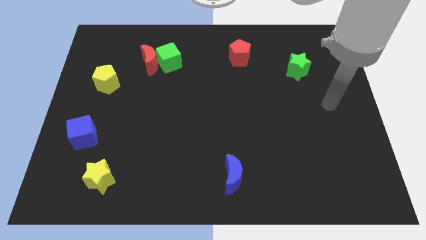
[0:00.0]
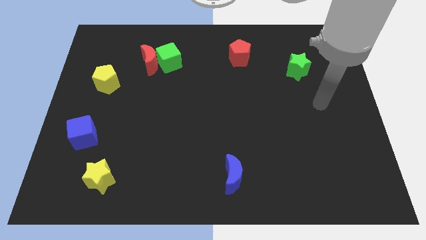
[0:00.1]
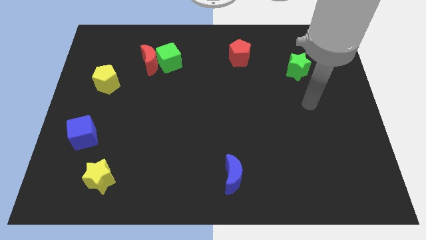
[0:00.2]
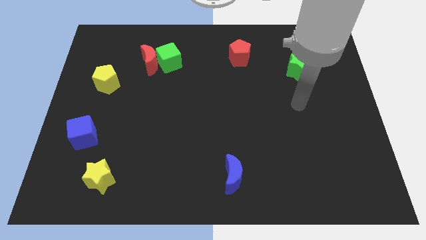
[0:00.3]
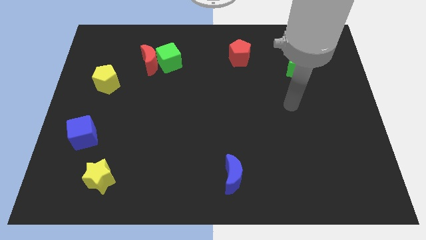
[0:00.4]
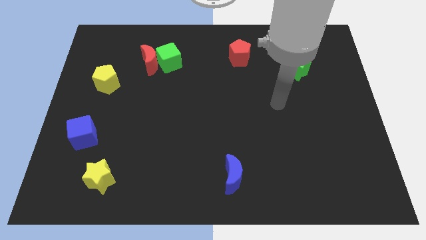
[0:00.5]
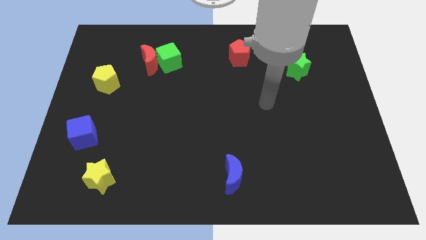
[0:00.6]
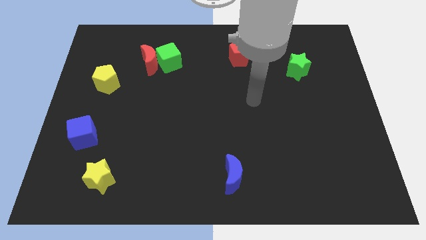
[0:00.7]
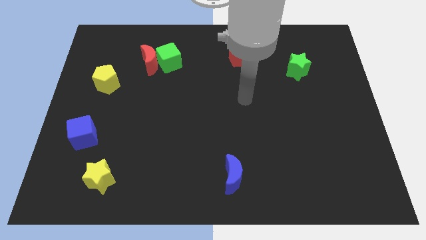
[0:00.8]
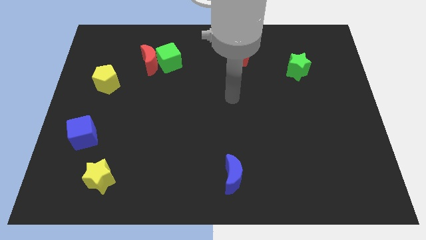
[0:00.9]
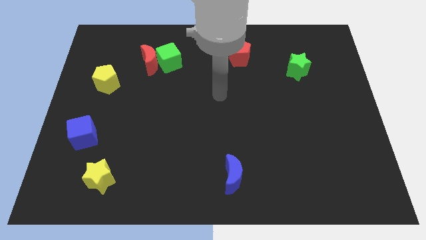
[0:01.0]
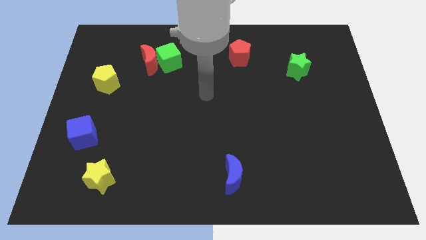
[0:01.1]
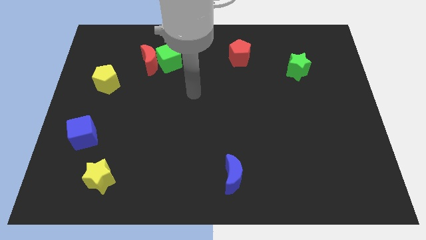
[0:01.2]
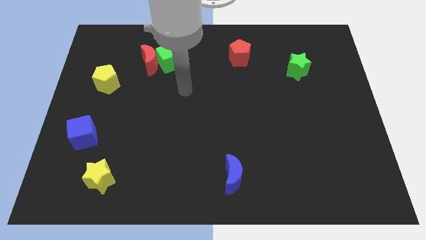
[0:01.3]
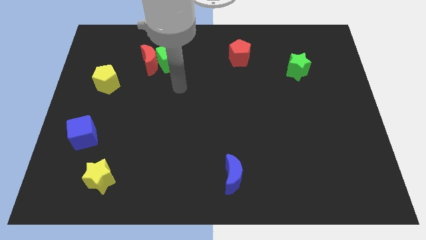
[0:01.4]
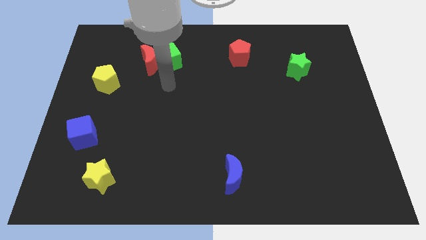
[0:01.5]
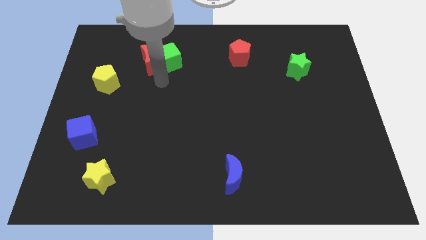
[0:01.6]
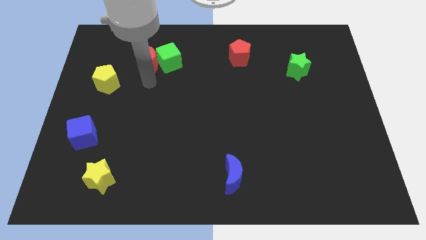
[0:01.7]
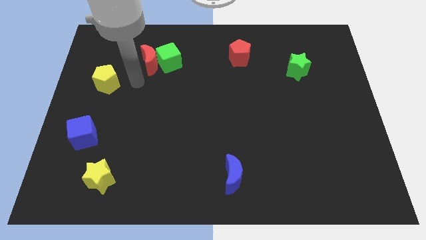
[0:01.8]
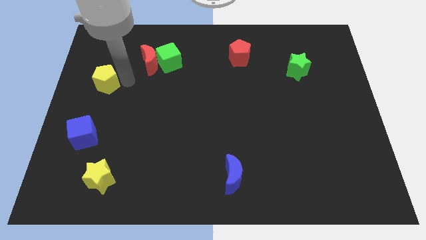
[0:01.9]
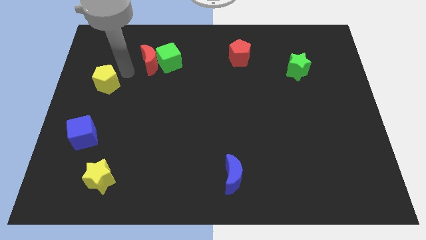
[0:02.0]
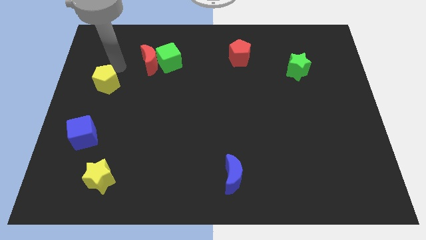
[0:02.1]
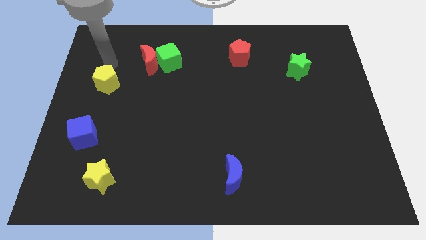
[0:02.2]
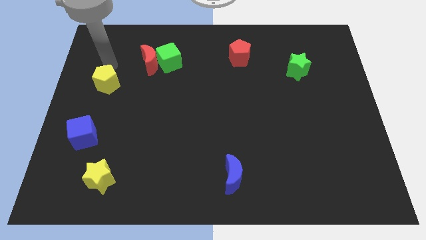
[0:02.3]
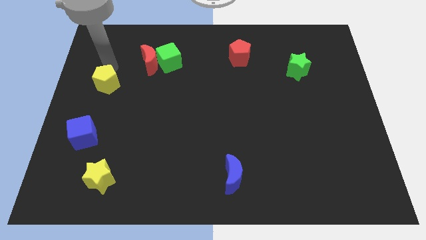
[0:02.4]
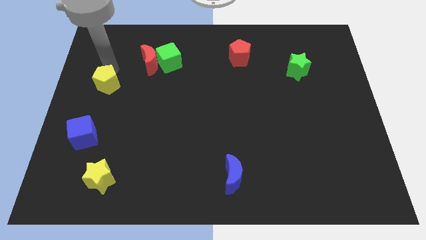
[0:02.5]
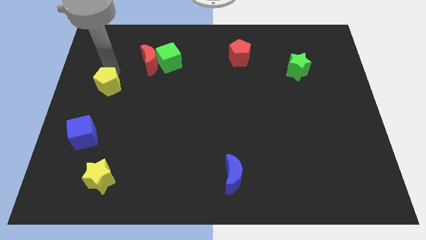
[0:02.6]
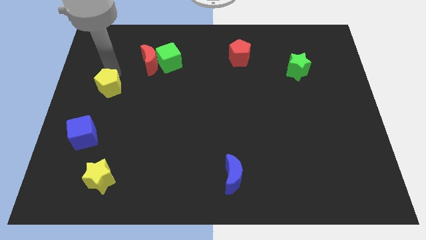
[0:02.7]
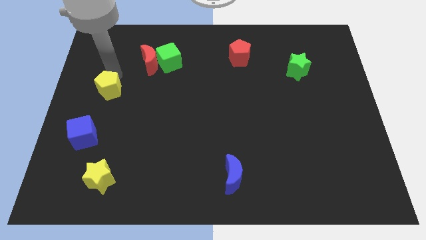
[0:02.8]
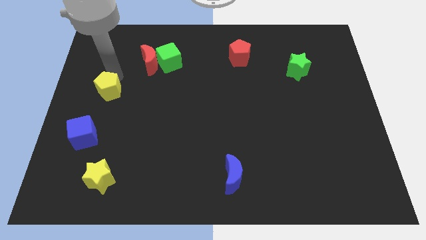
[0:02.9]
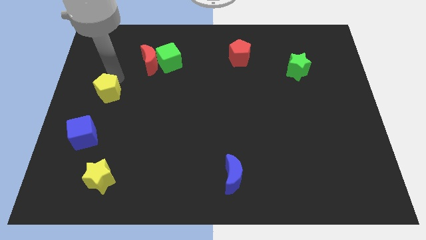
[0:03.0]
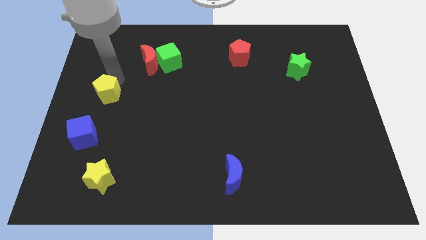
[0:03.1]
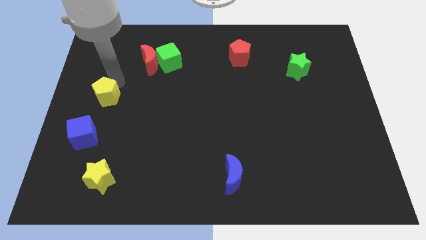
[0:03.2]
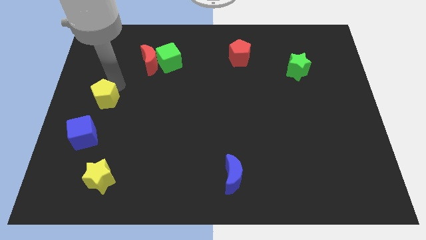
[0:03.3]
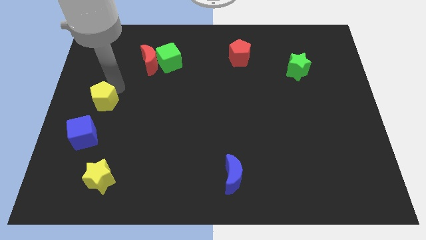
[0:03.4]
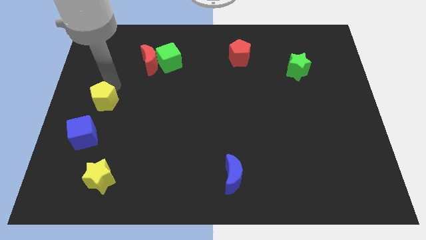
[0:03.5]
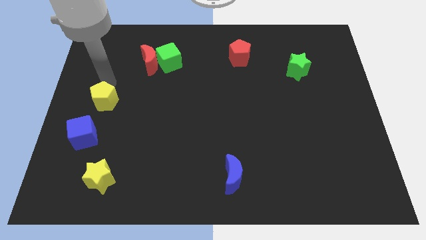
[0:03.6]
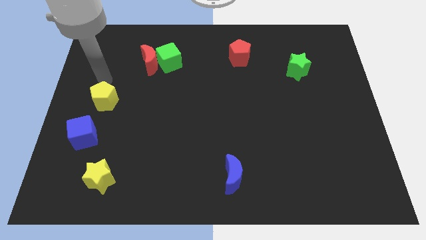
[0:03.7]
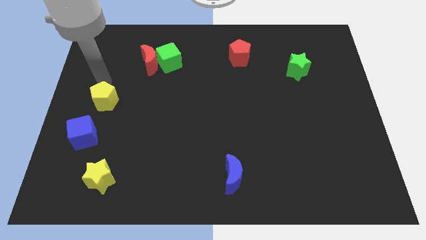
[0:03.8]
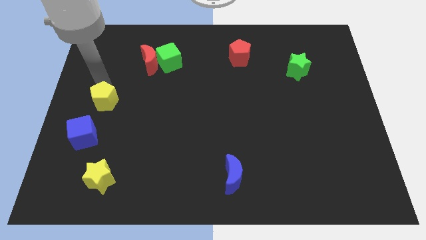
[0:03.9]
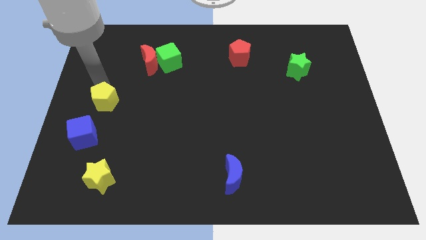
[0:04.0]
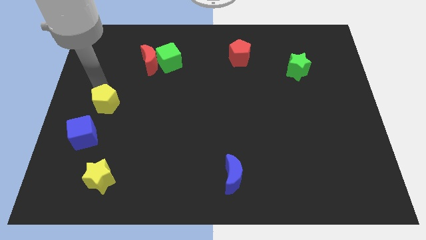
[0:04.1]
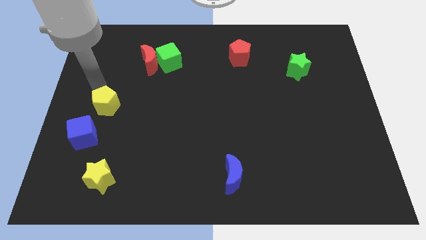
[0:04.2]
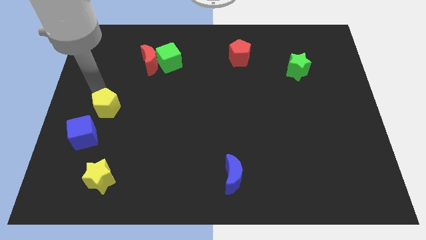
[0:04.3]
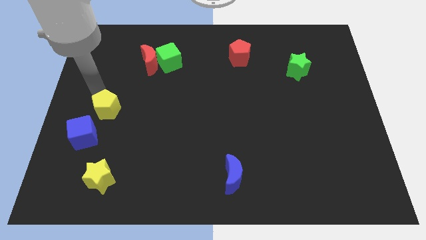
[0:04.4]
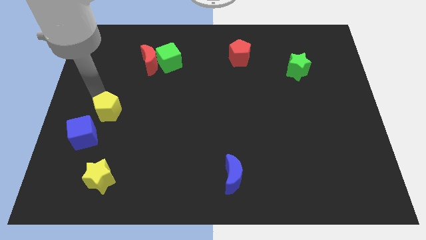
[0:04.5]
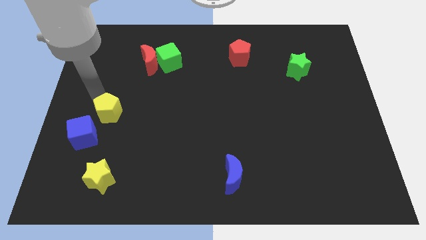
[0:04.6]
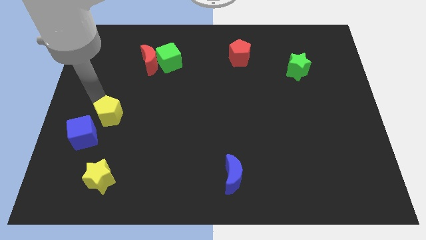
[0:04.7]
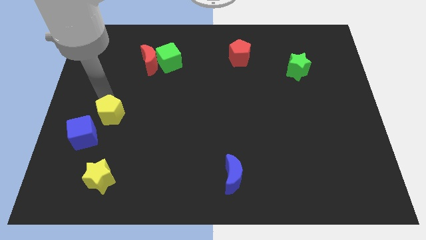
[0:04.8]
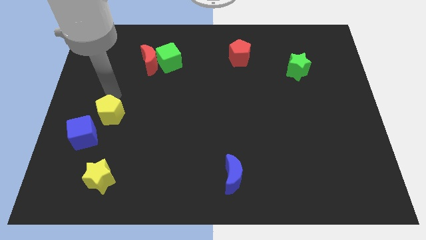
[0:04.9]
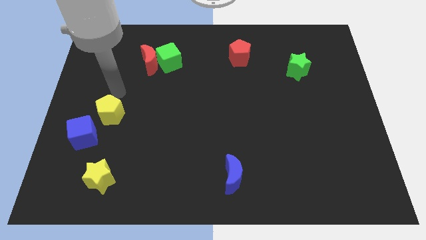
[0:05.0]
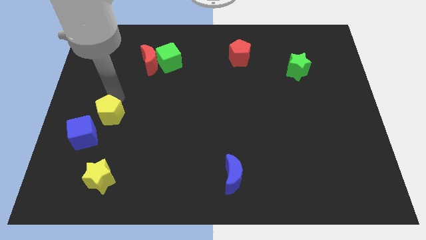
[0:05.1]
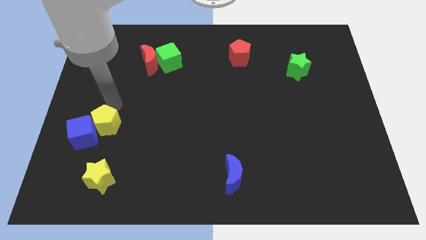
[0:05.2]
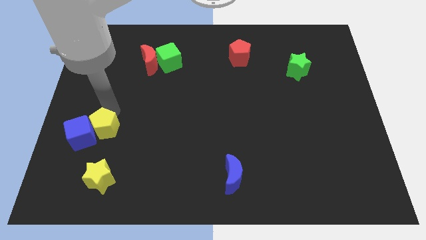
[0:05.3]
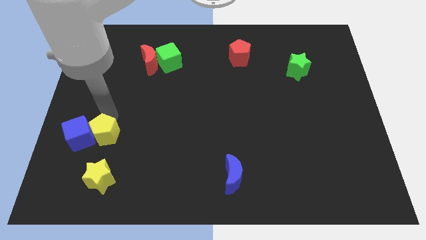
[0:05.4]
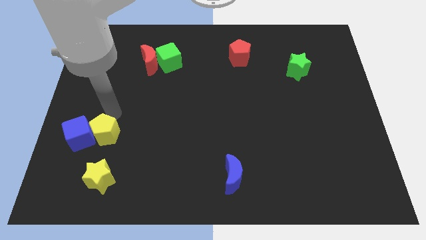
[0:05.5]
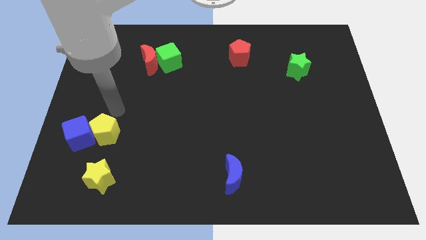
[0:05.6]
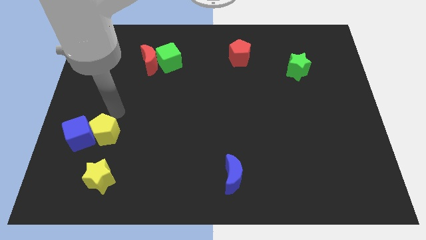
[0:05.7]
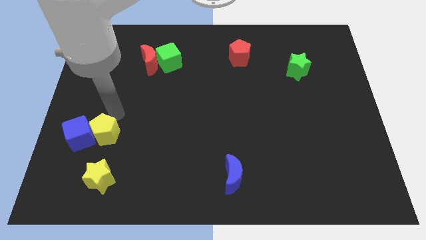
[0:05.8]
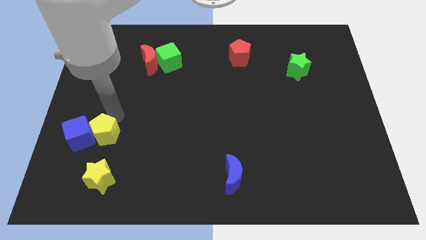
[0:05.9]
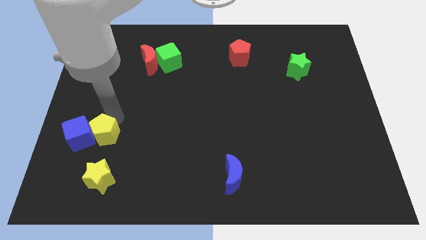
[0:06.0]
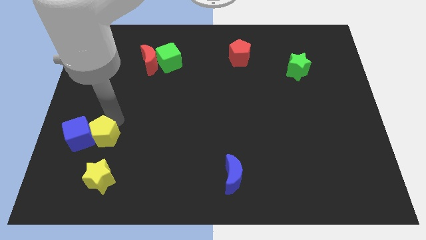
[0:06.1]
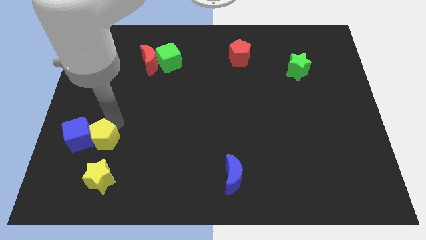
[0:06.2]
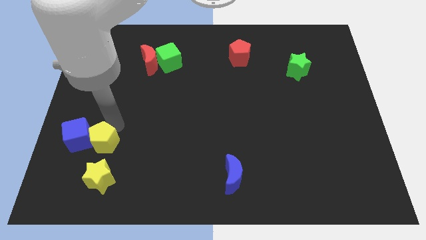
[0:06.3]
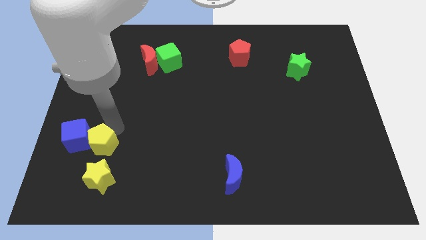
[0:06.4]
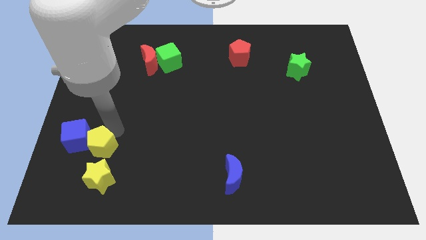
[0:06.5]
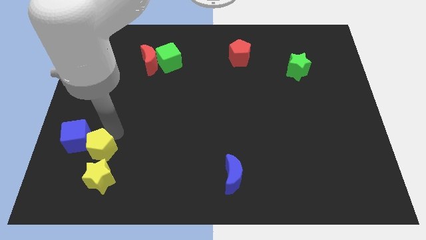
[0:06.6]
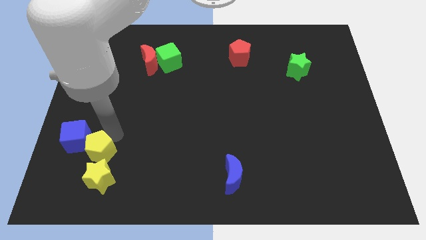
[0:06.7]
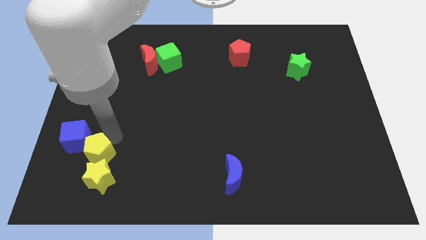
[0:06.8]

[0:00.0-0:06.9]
push the yellow pentagon next to the yellow star
